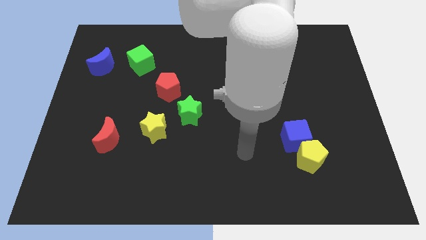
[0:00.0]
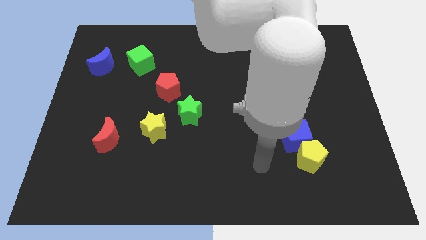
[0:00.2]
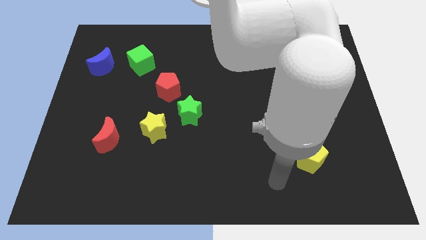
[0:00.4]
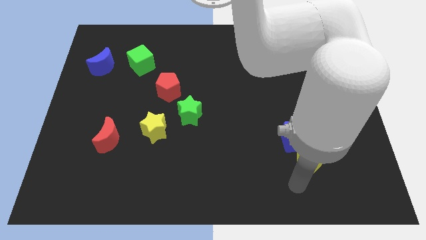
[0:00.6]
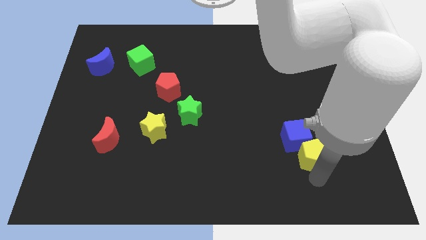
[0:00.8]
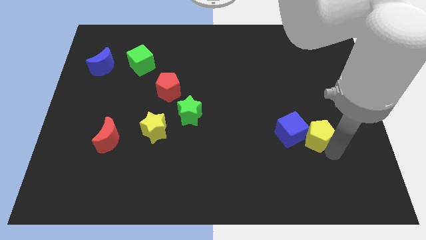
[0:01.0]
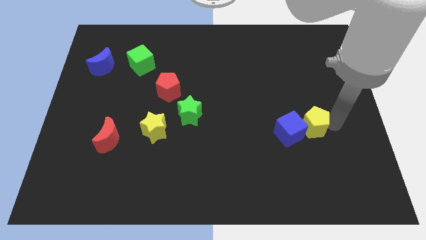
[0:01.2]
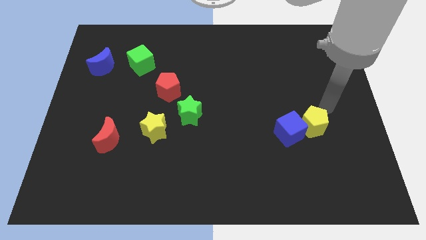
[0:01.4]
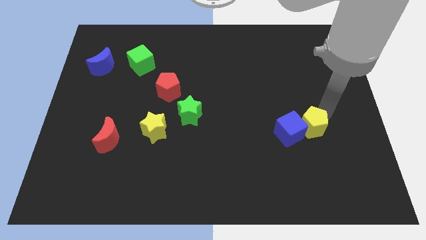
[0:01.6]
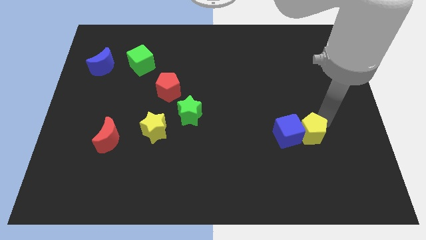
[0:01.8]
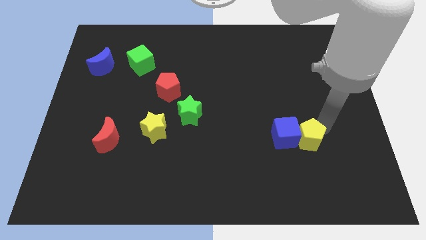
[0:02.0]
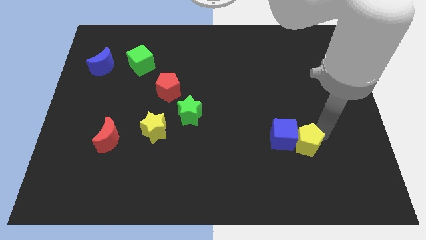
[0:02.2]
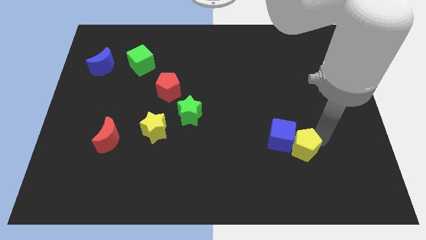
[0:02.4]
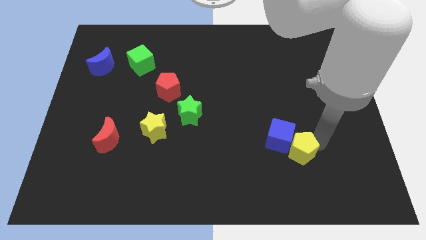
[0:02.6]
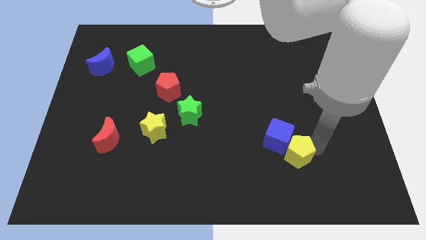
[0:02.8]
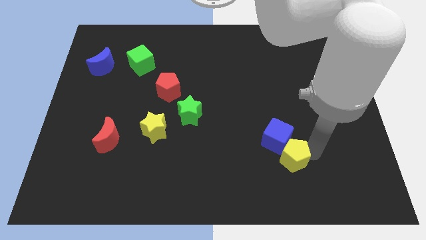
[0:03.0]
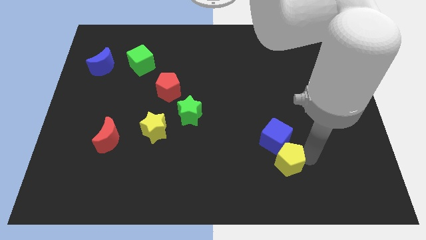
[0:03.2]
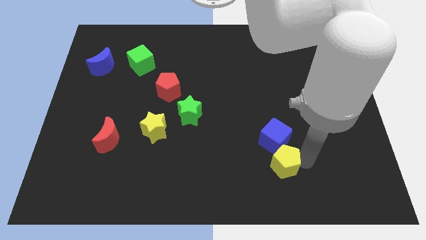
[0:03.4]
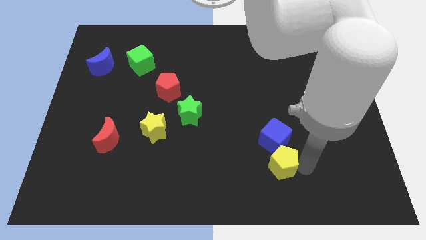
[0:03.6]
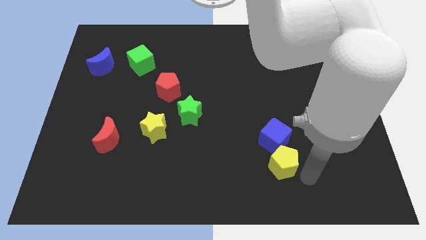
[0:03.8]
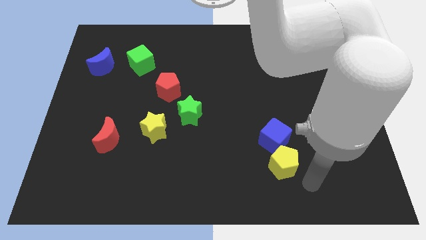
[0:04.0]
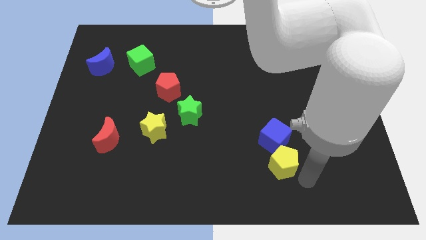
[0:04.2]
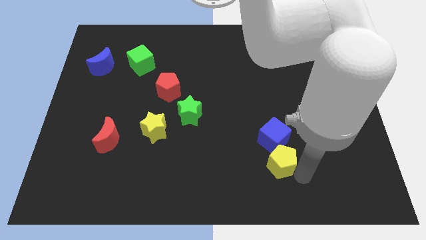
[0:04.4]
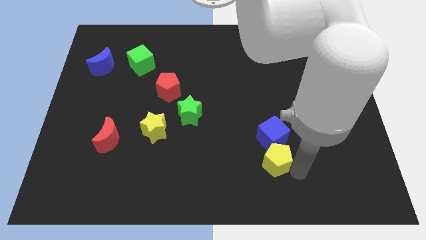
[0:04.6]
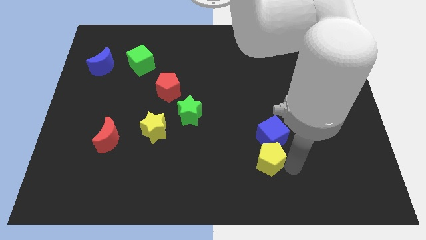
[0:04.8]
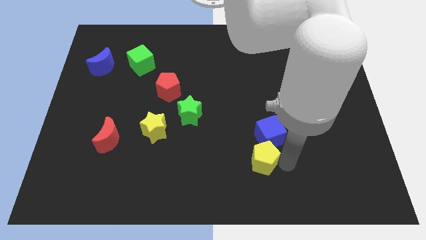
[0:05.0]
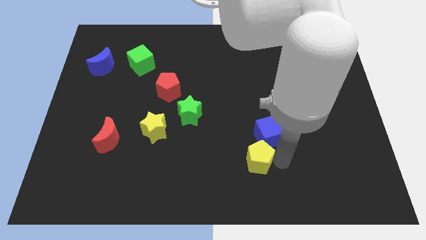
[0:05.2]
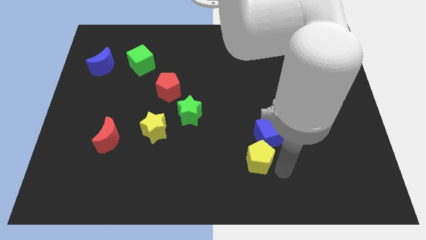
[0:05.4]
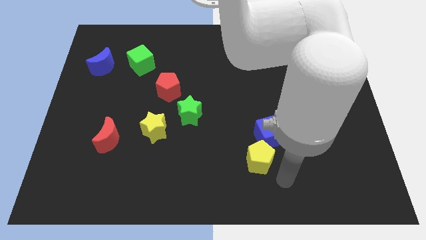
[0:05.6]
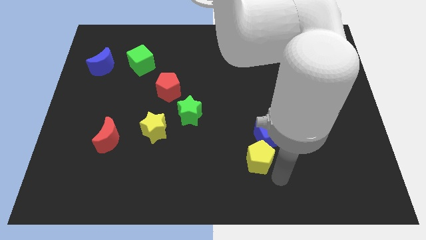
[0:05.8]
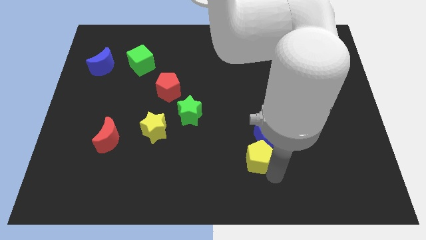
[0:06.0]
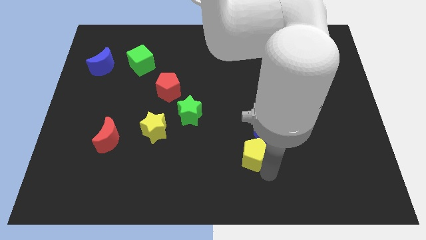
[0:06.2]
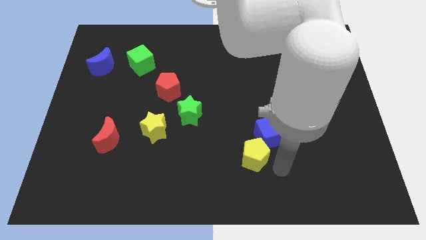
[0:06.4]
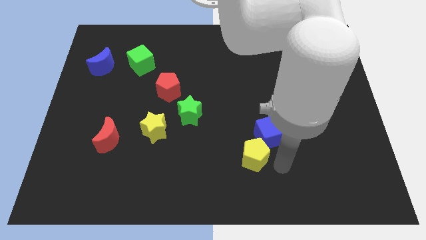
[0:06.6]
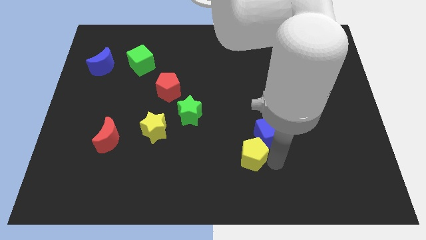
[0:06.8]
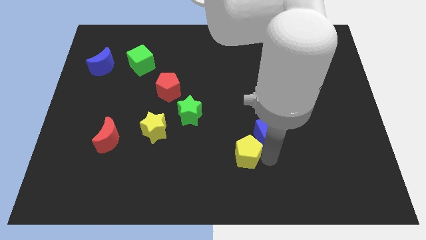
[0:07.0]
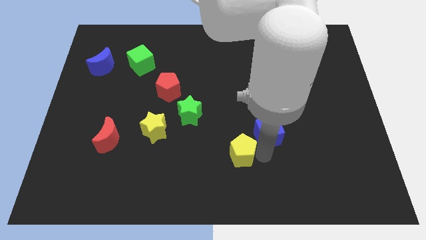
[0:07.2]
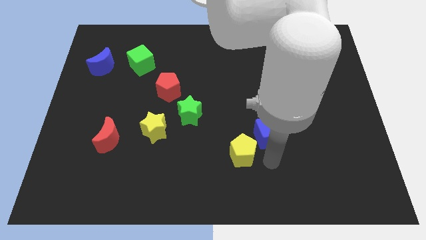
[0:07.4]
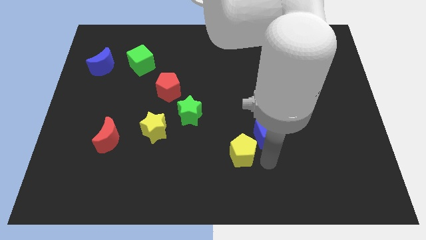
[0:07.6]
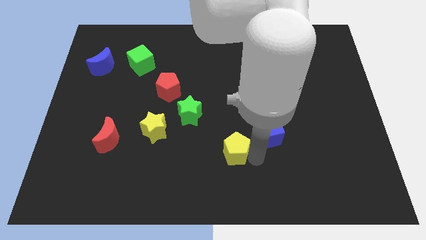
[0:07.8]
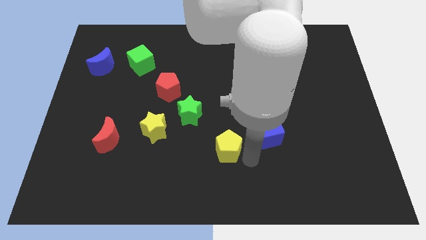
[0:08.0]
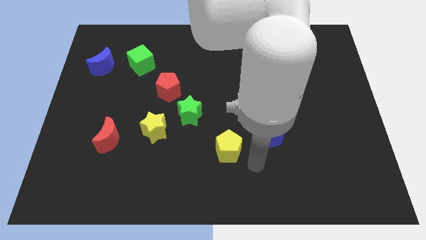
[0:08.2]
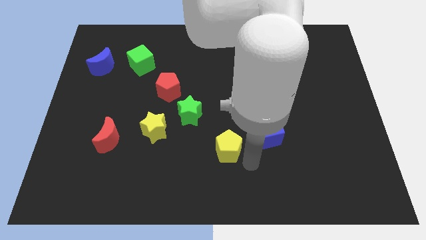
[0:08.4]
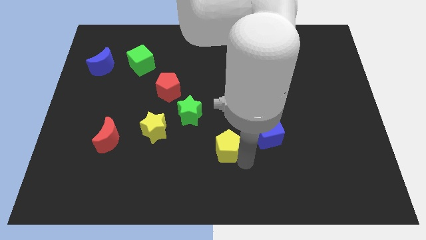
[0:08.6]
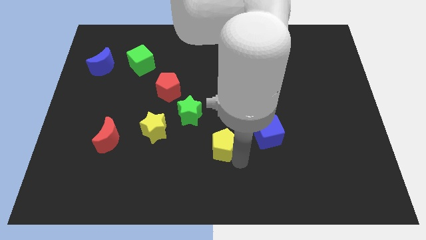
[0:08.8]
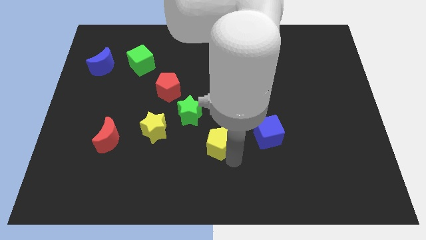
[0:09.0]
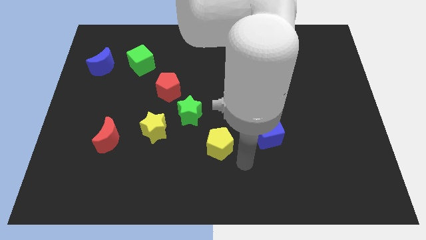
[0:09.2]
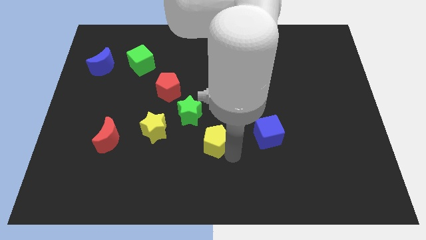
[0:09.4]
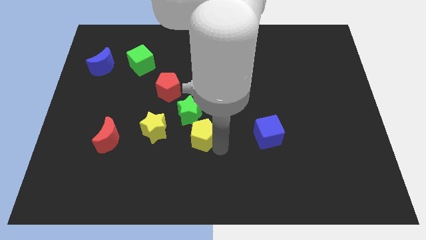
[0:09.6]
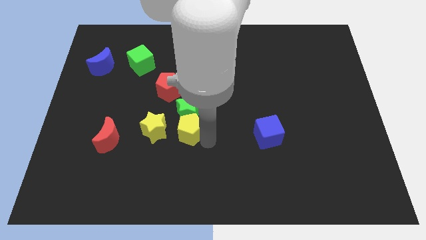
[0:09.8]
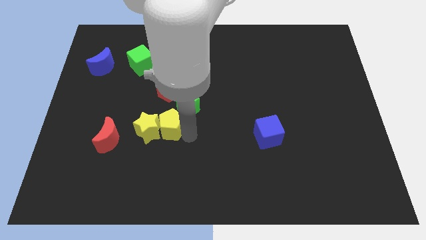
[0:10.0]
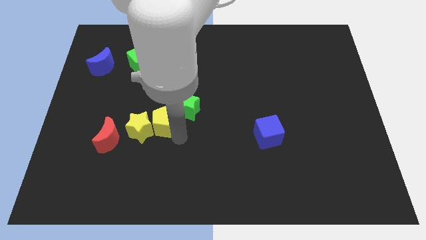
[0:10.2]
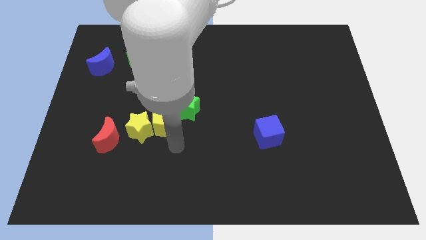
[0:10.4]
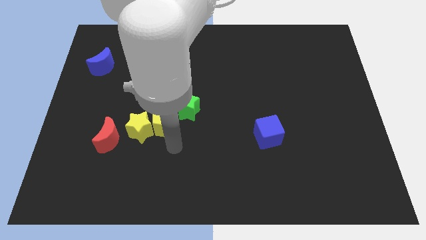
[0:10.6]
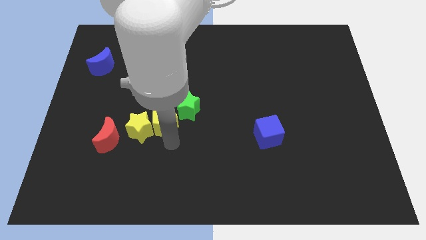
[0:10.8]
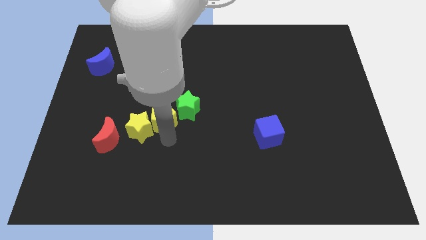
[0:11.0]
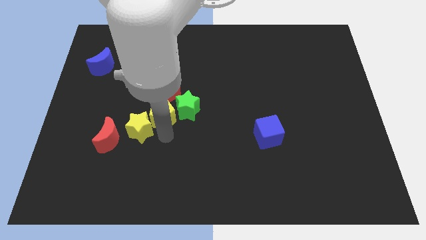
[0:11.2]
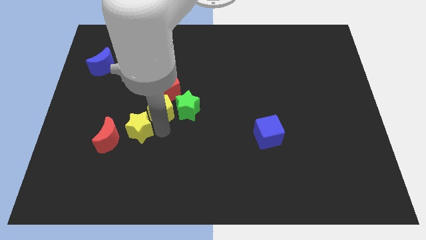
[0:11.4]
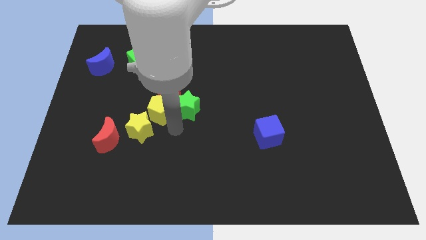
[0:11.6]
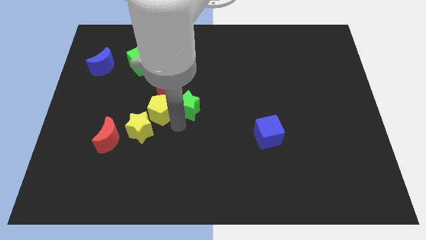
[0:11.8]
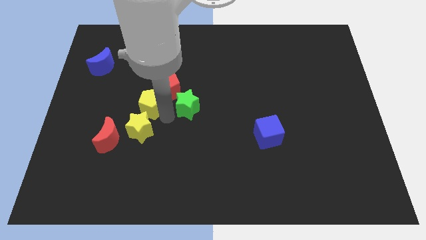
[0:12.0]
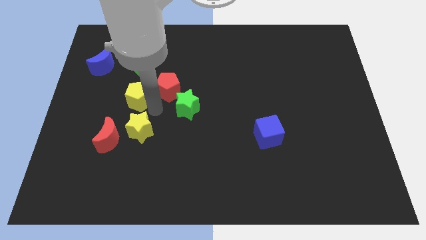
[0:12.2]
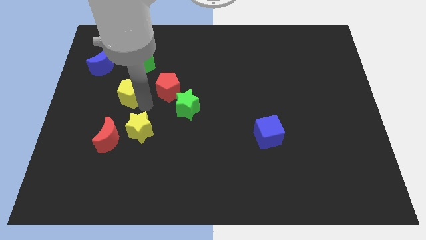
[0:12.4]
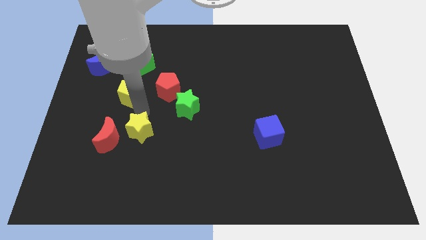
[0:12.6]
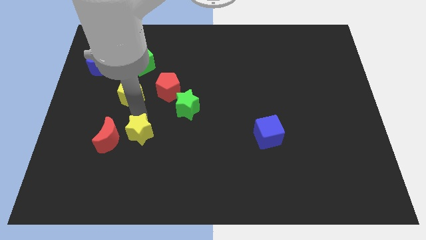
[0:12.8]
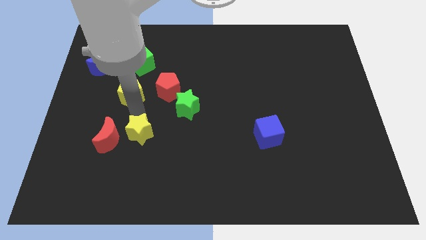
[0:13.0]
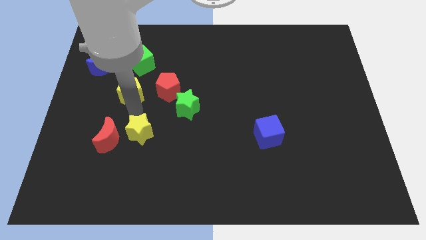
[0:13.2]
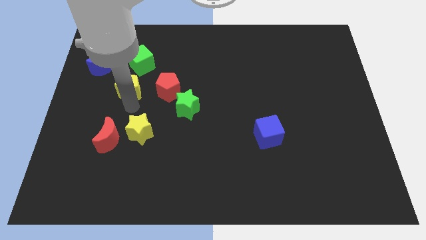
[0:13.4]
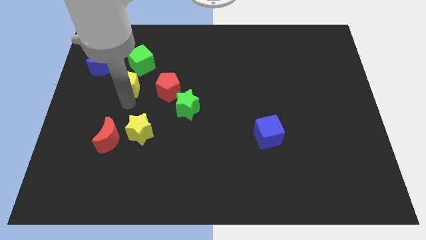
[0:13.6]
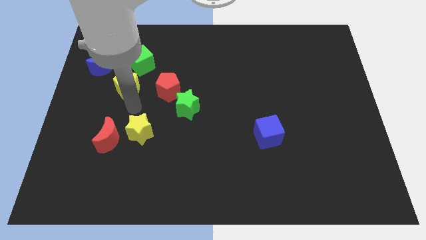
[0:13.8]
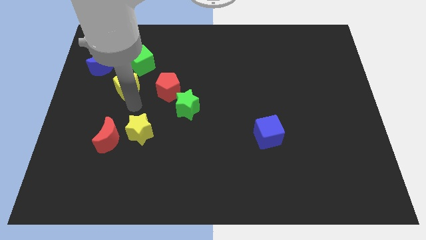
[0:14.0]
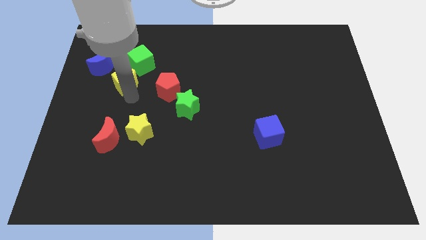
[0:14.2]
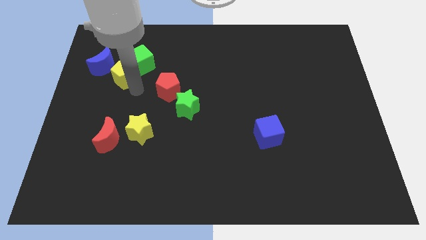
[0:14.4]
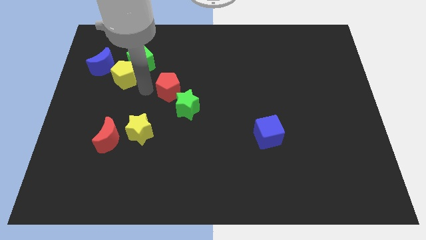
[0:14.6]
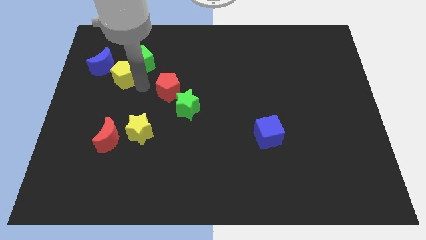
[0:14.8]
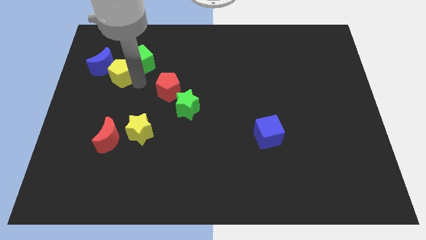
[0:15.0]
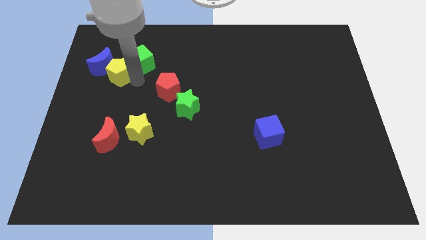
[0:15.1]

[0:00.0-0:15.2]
put the yellow pentagon to the blue moon
